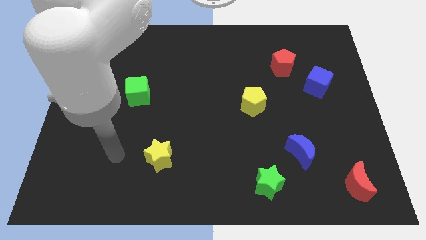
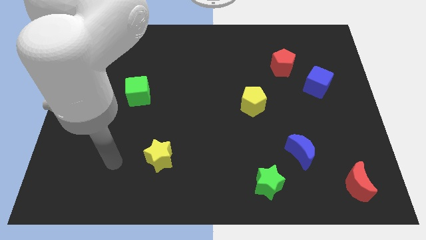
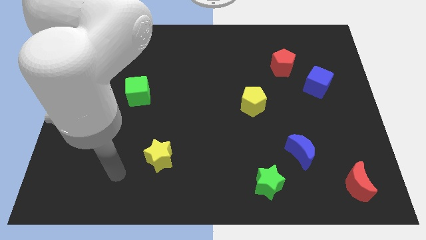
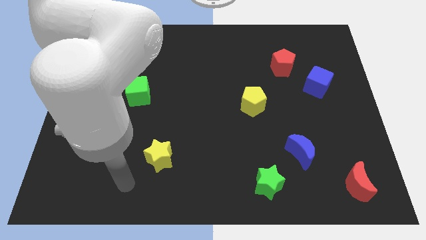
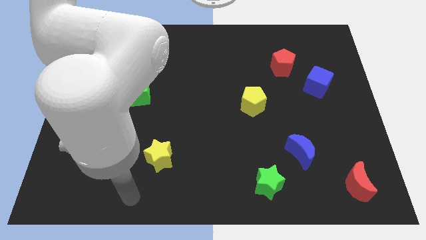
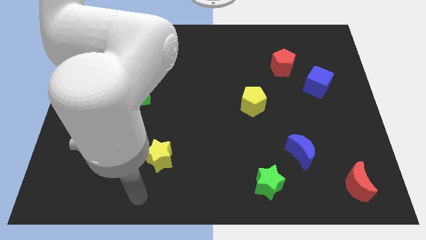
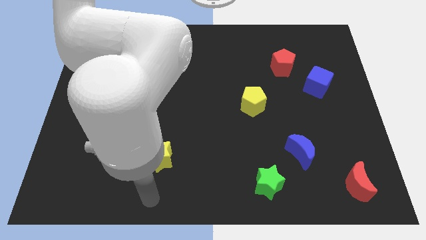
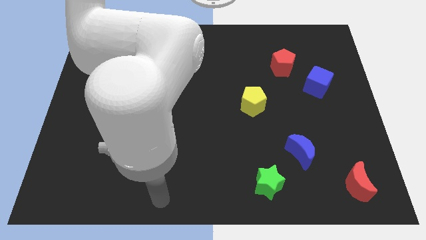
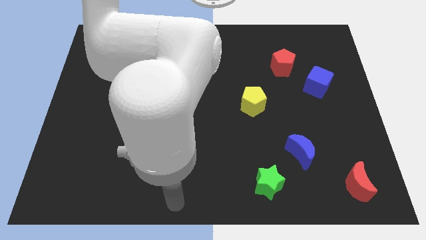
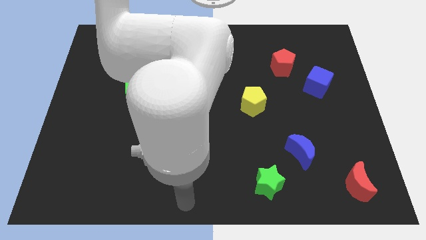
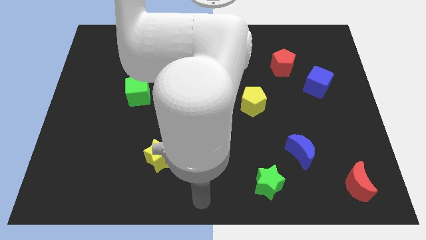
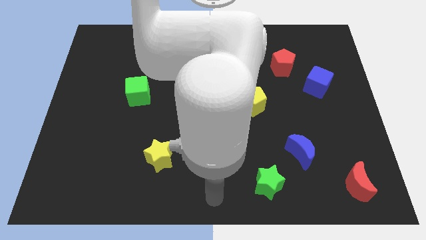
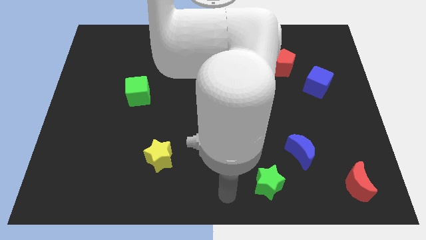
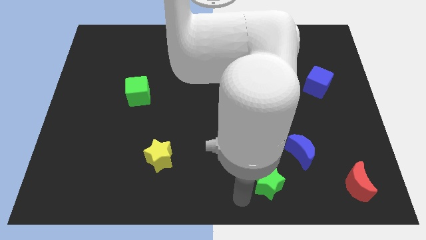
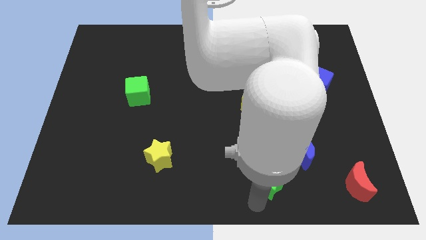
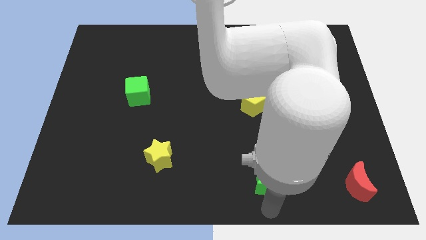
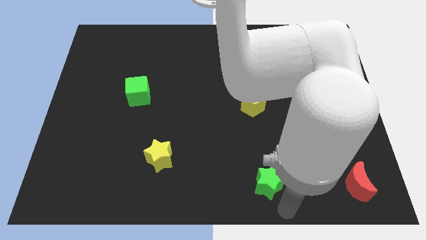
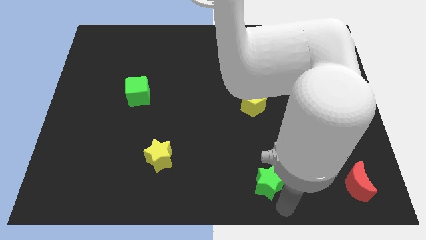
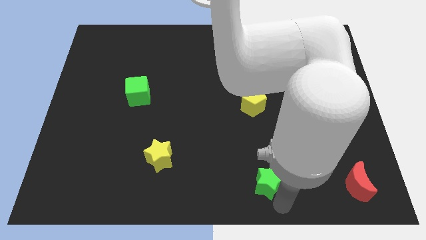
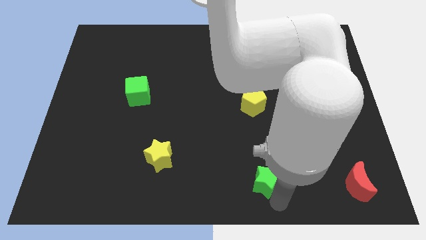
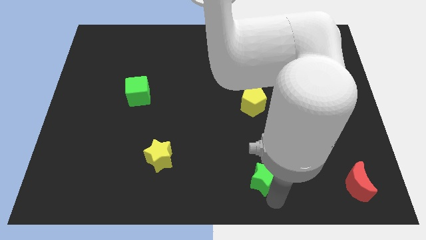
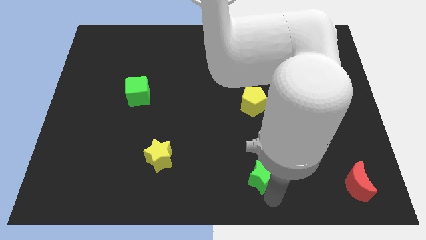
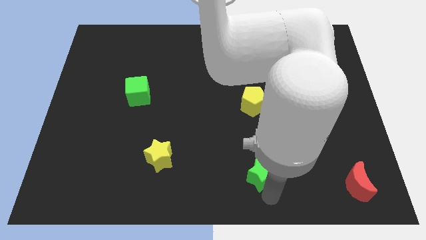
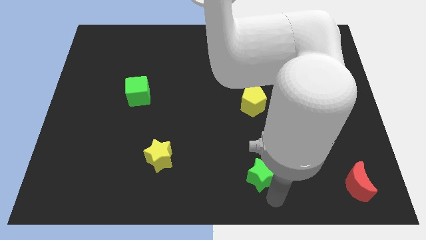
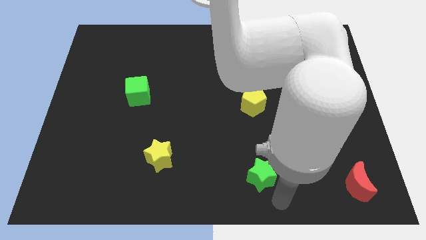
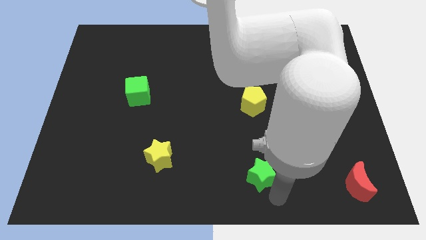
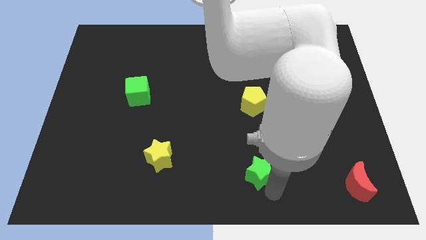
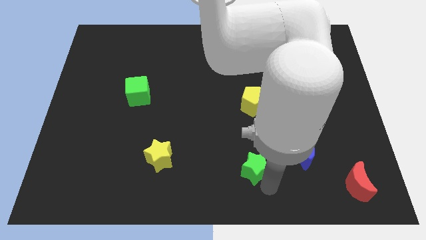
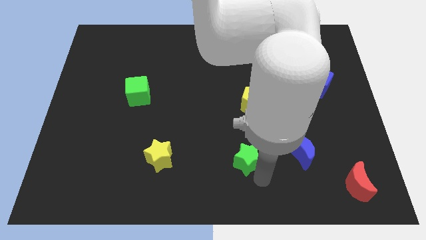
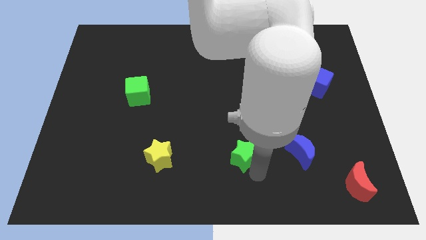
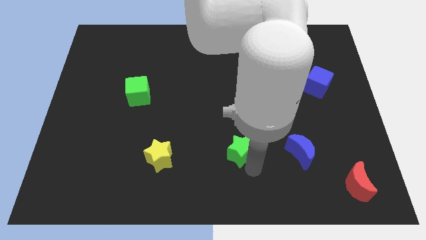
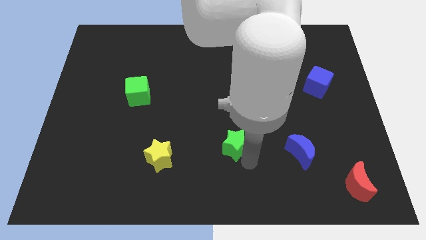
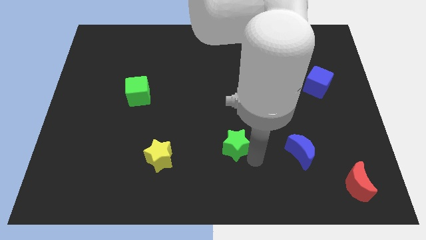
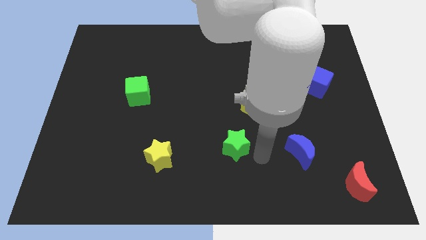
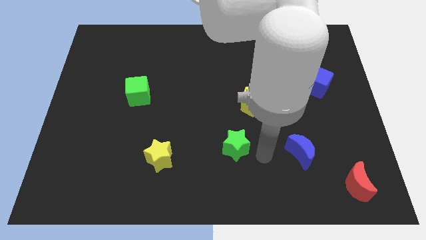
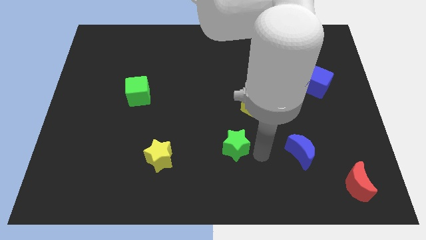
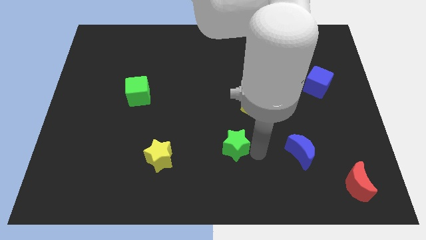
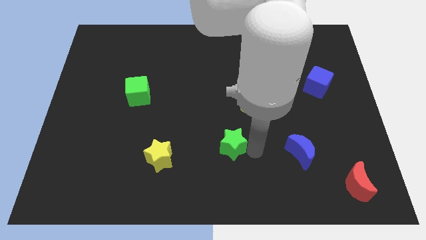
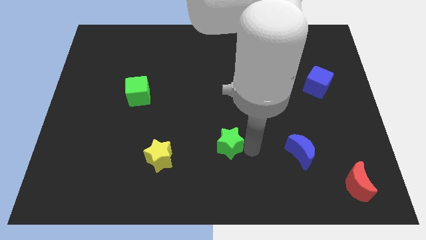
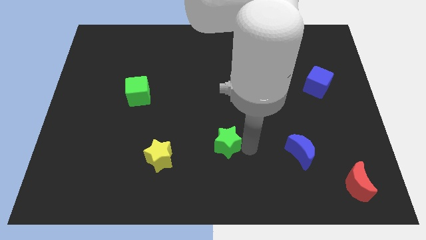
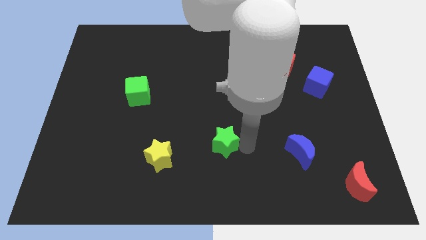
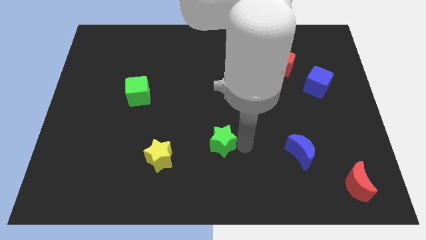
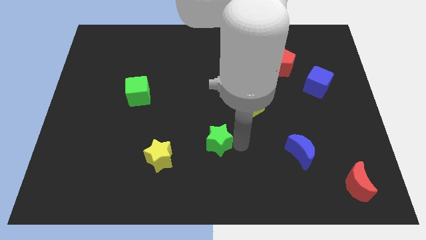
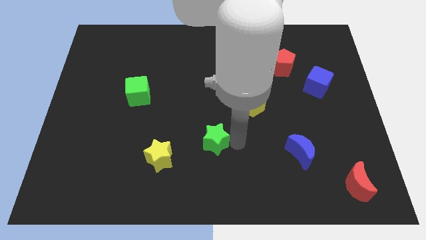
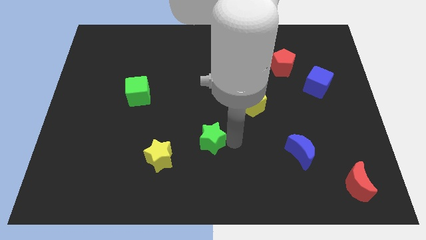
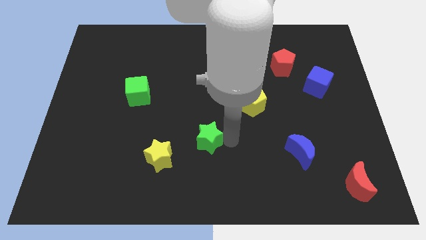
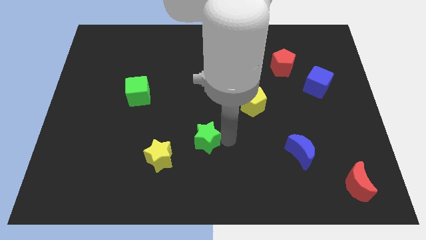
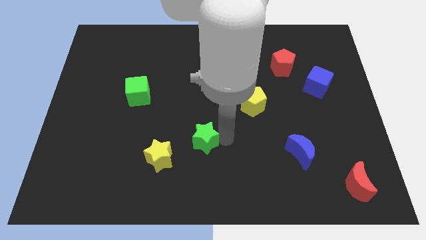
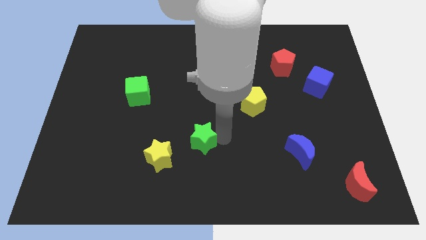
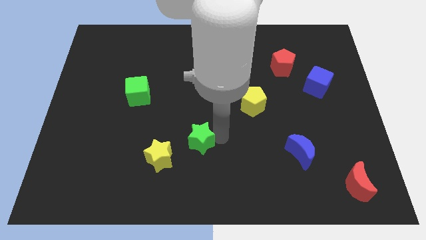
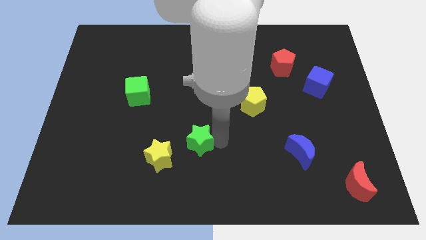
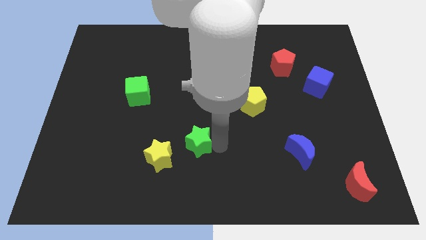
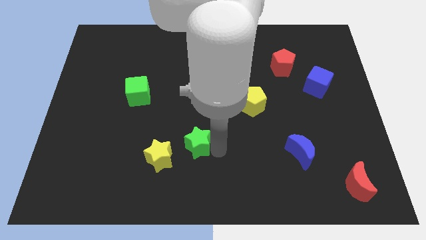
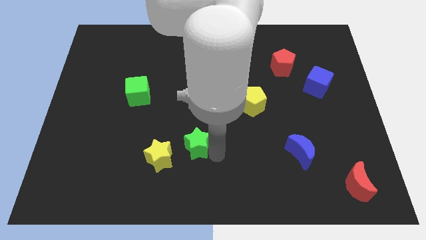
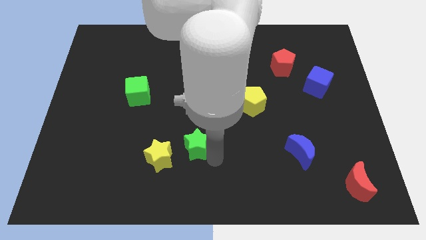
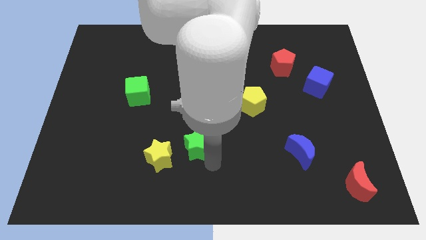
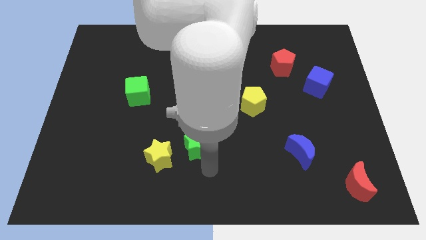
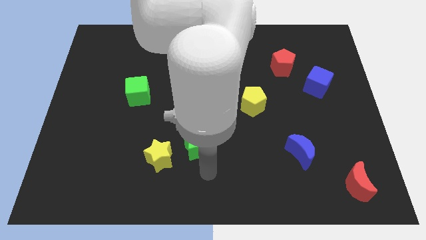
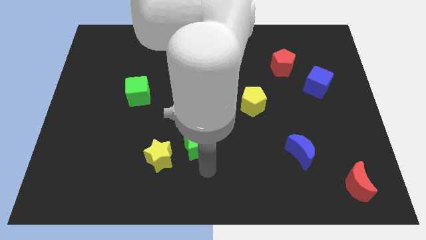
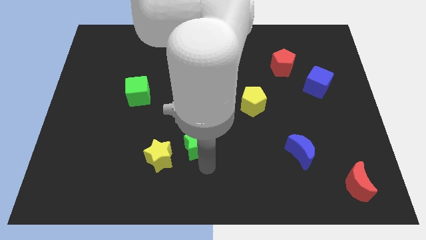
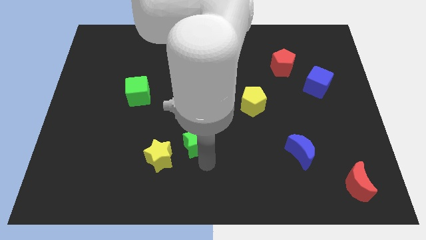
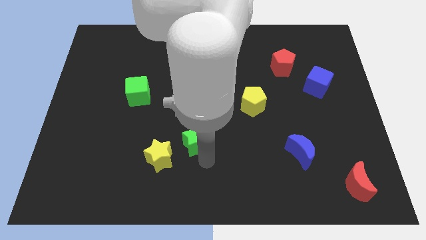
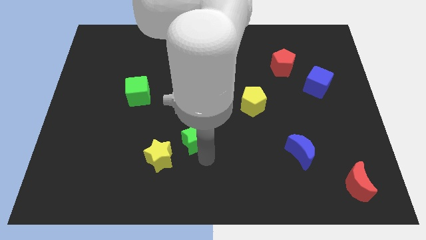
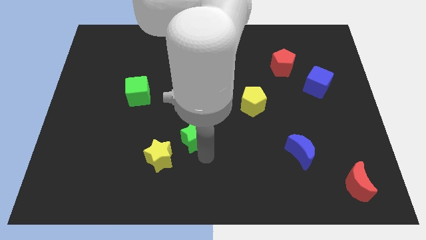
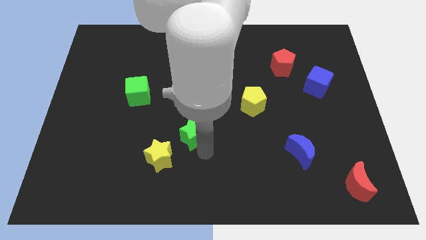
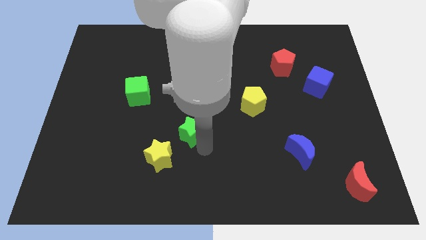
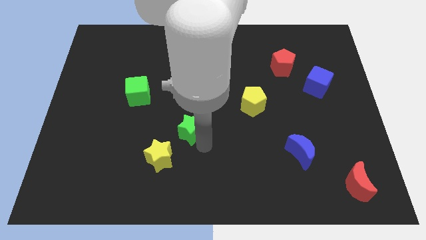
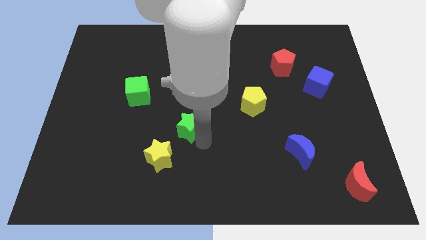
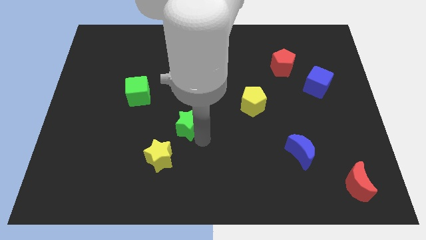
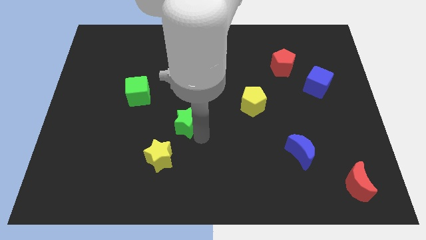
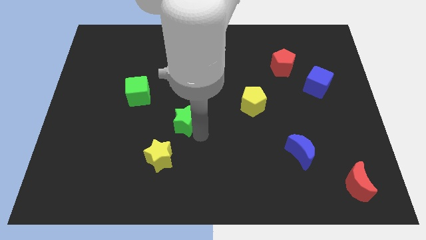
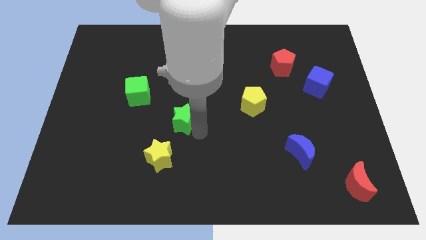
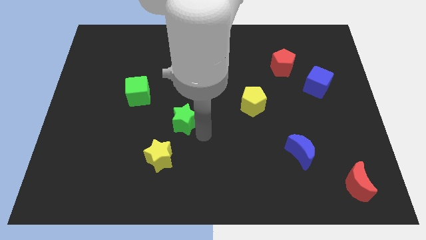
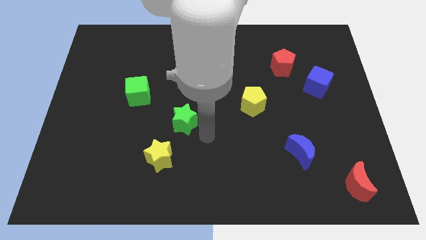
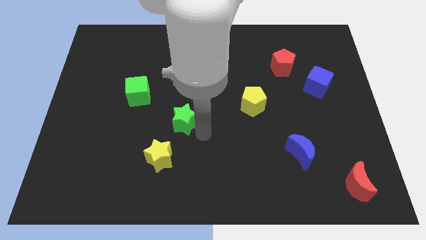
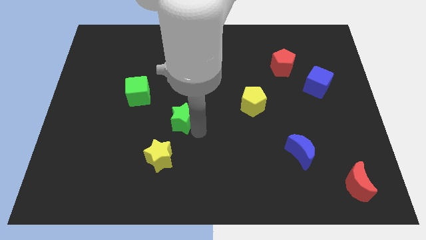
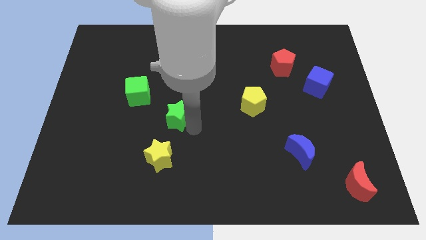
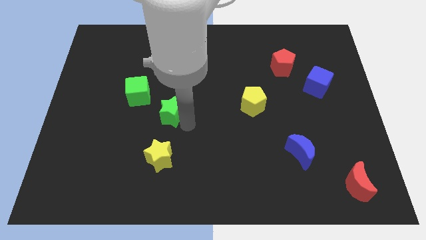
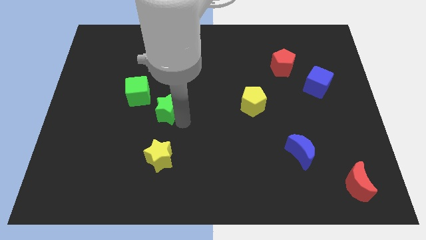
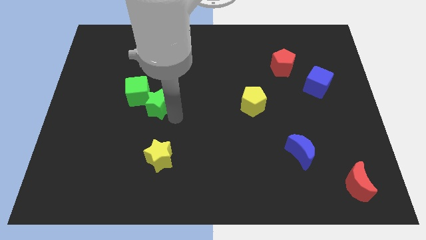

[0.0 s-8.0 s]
move the green star next to the green cube
